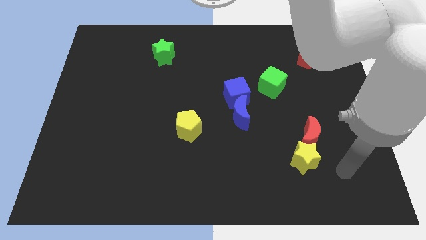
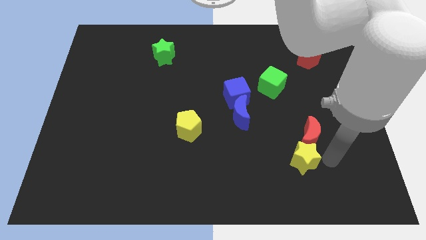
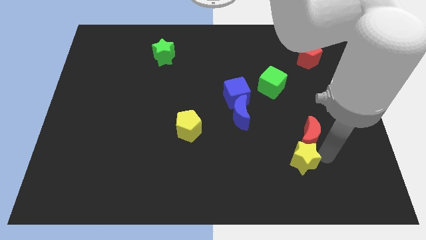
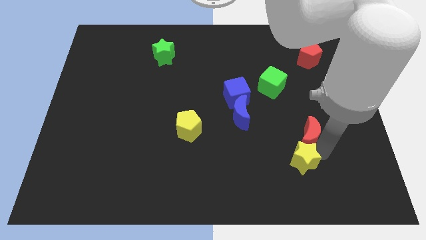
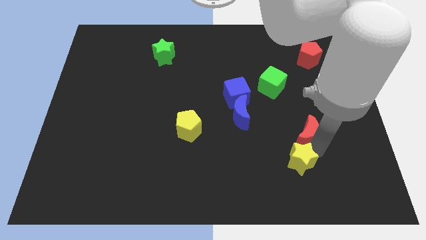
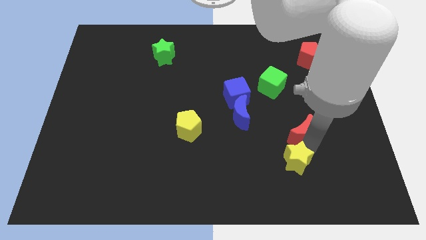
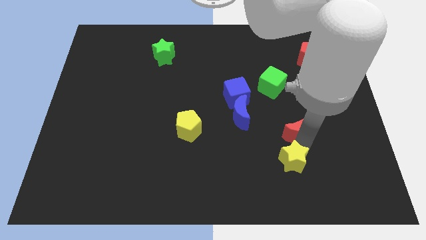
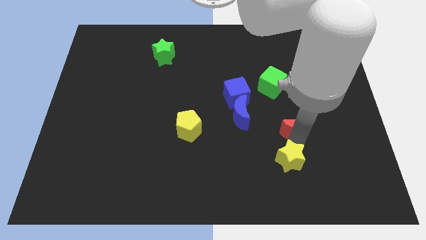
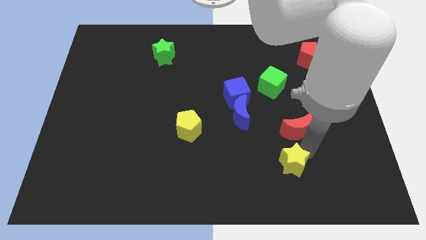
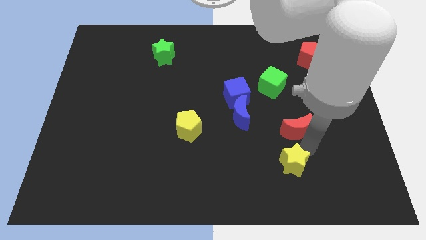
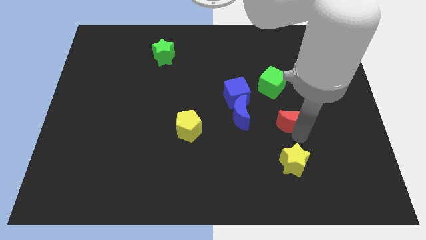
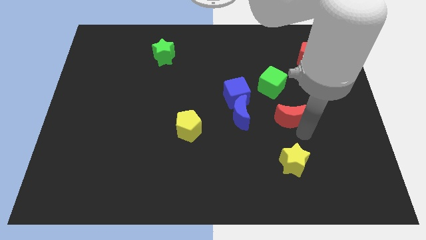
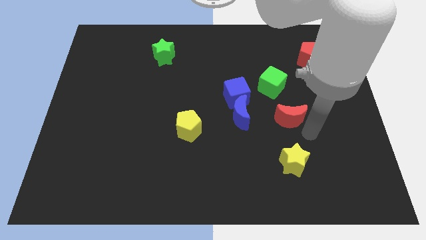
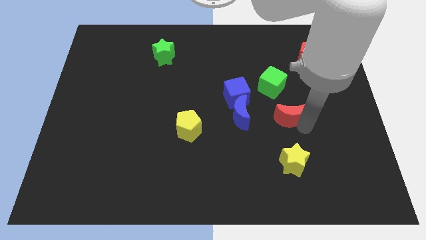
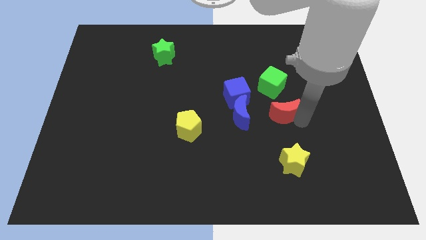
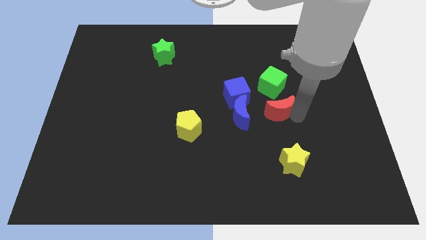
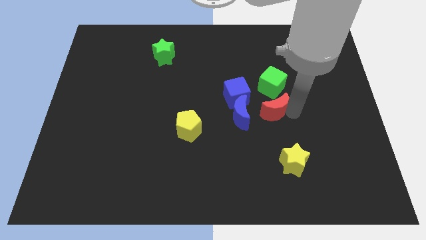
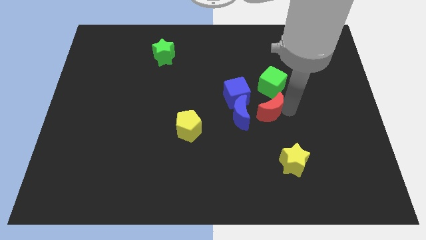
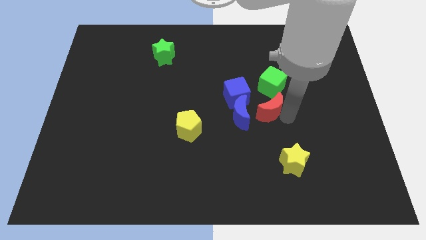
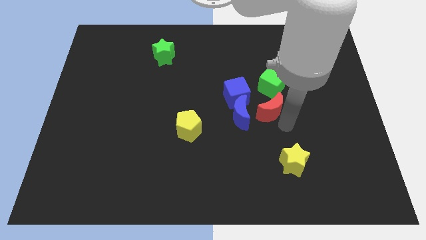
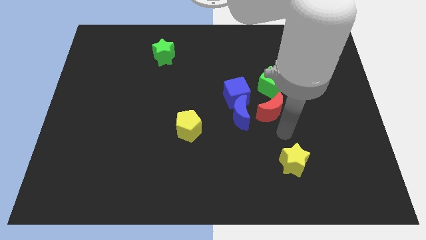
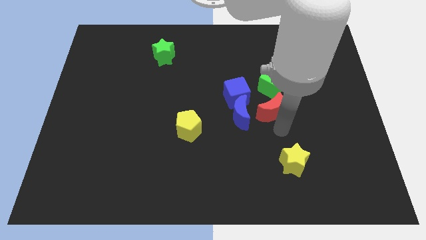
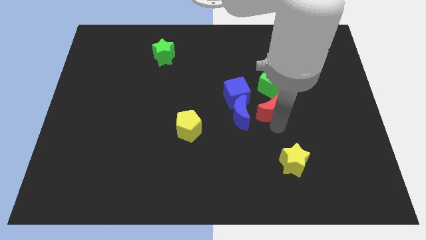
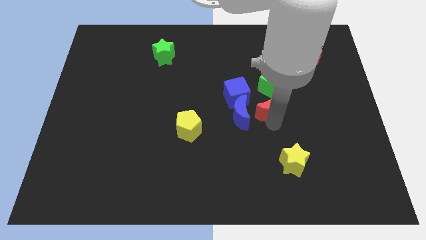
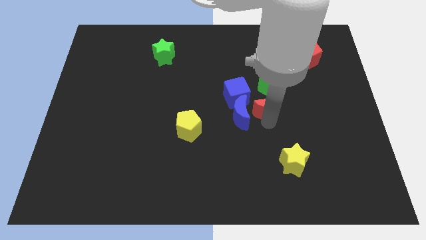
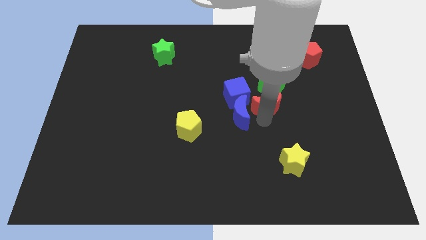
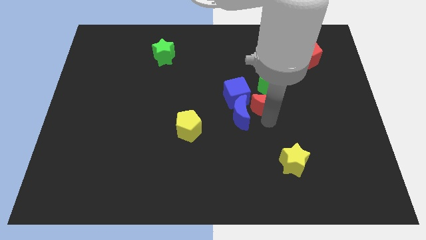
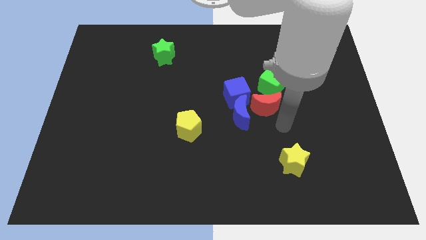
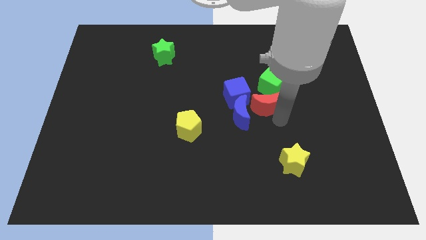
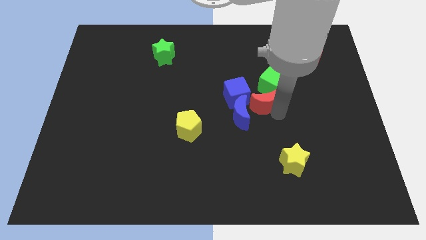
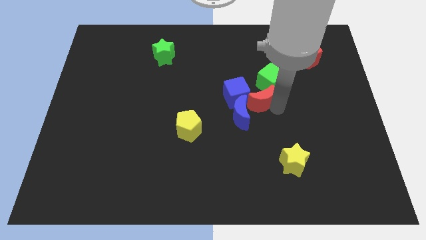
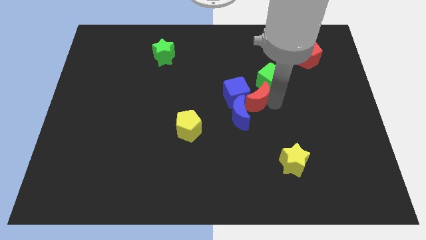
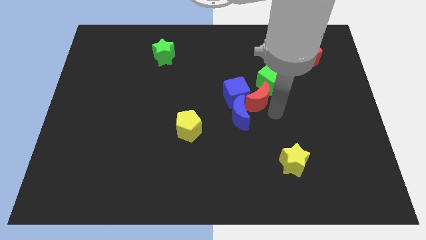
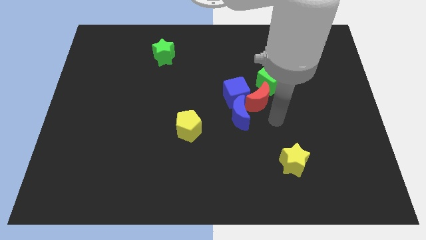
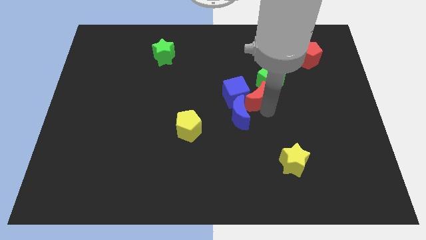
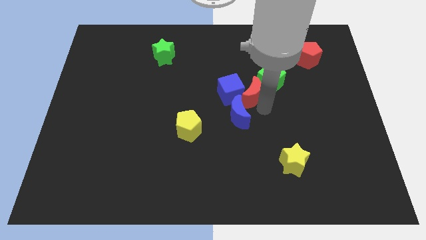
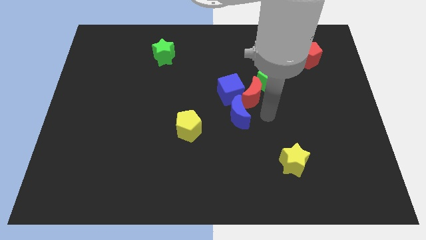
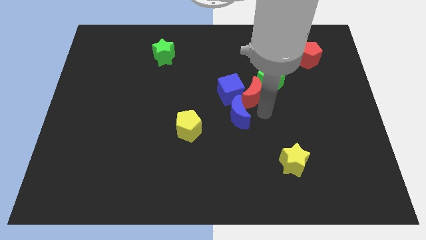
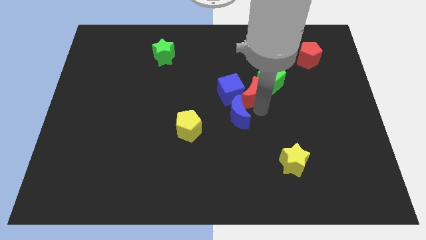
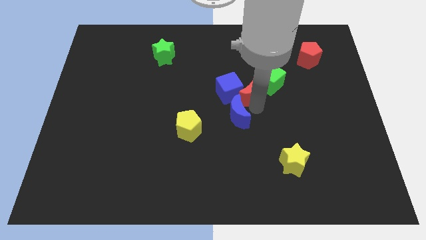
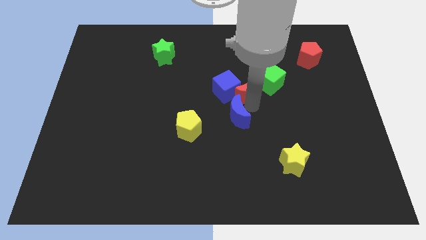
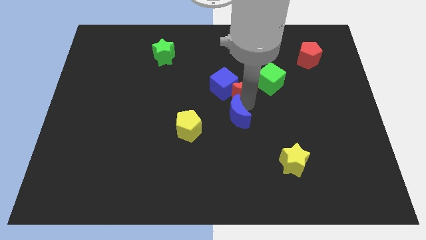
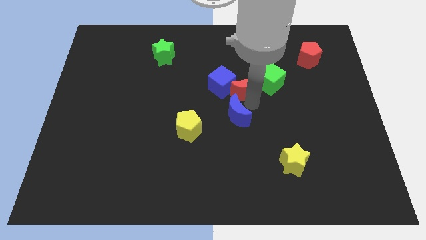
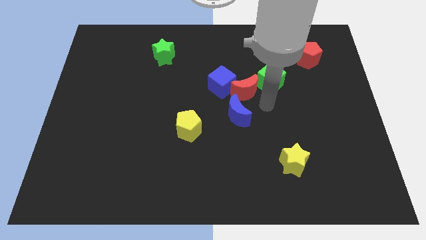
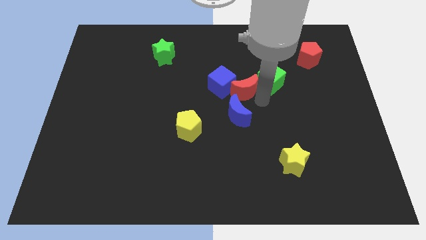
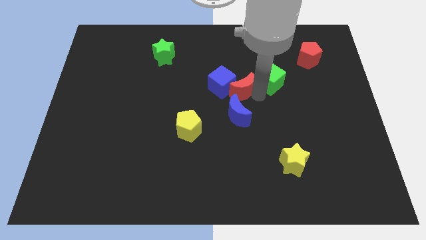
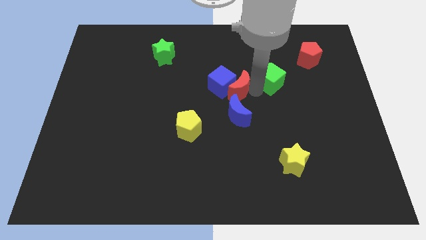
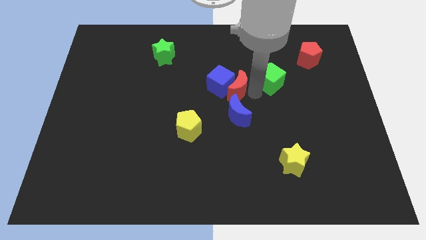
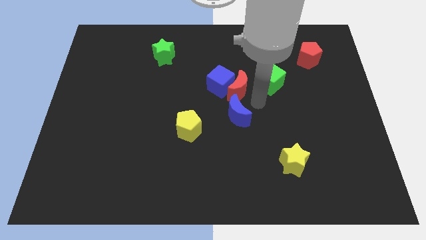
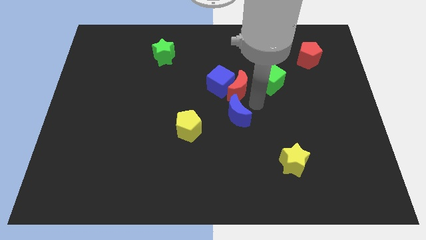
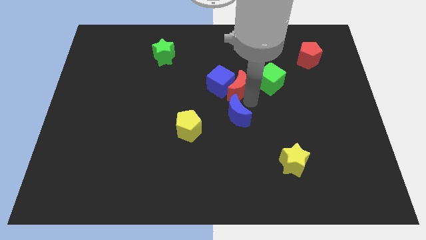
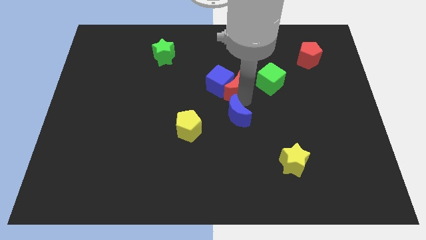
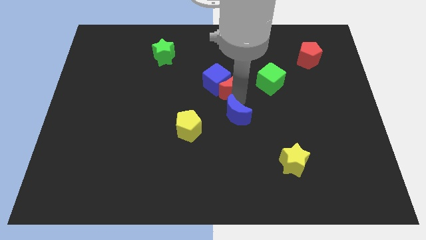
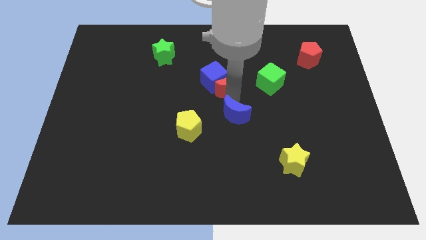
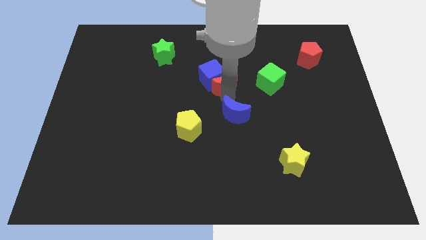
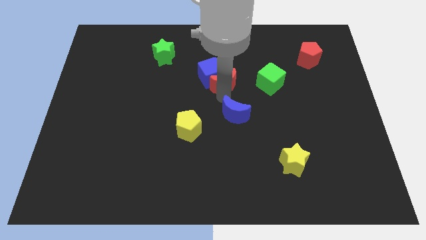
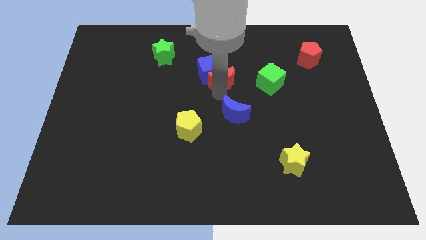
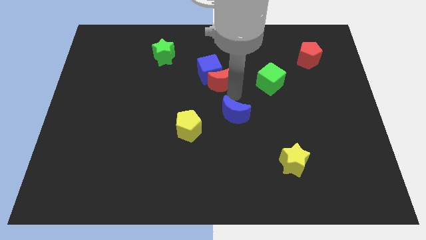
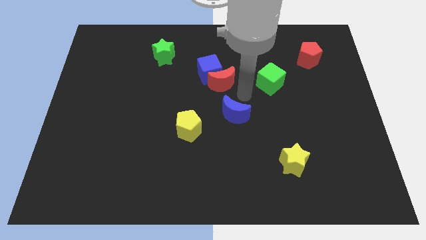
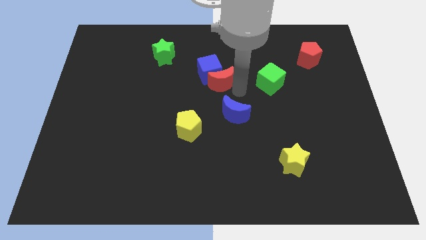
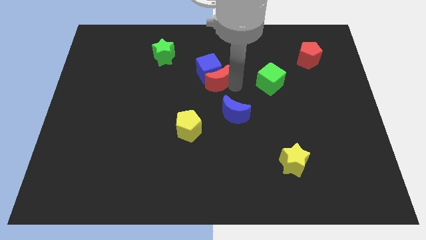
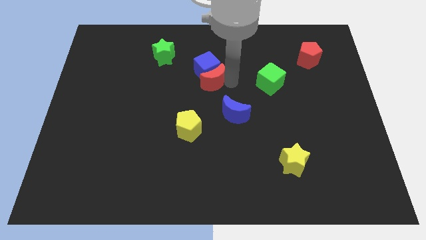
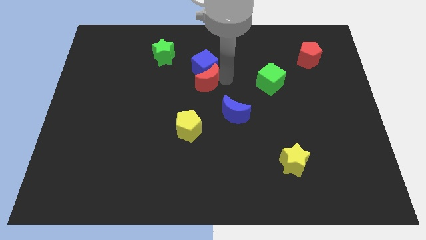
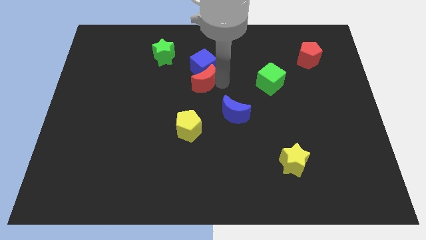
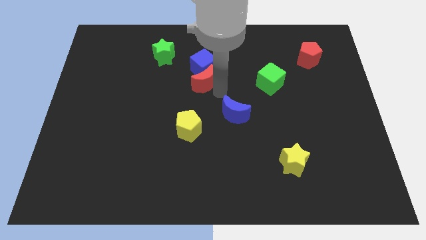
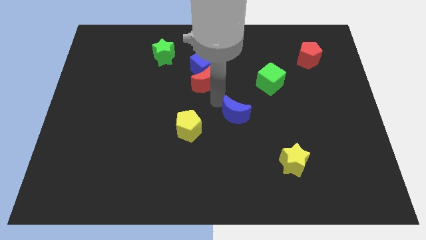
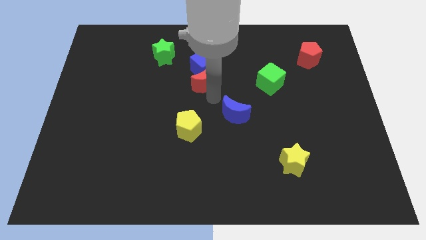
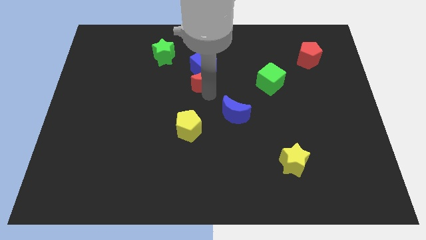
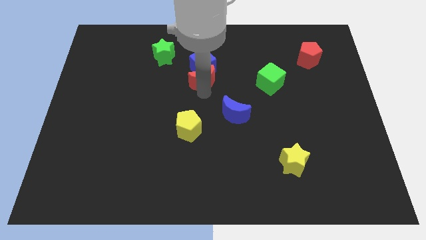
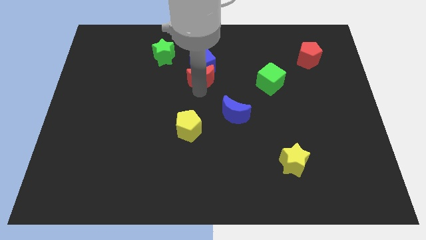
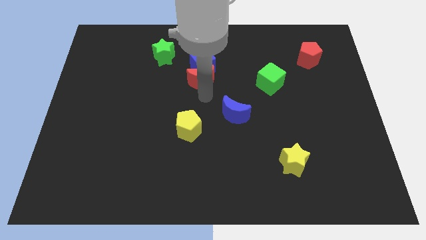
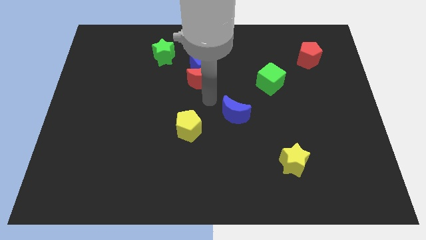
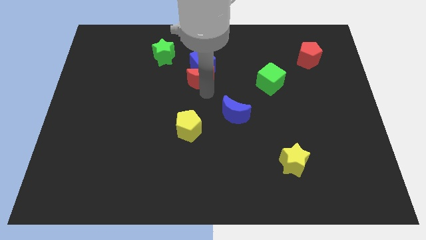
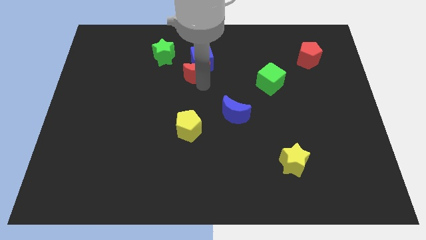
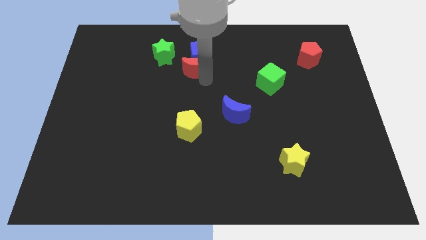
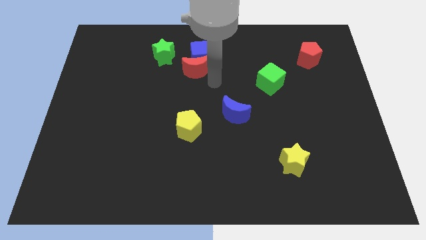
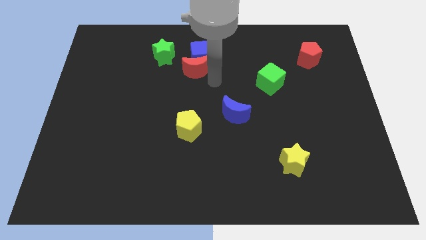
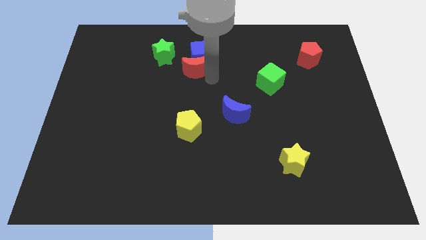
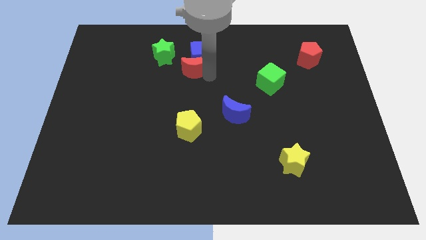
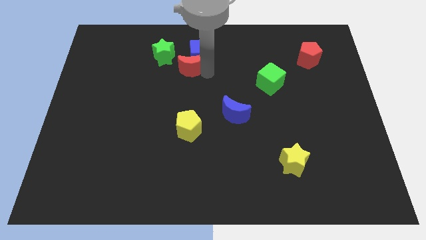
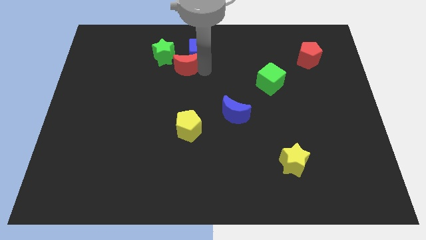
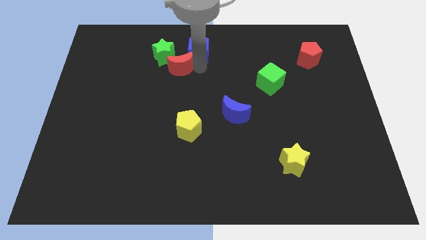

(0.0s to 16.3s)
put the red moon close to the green star
